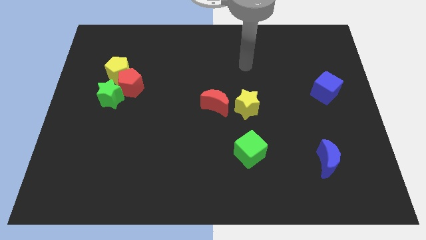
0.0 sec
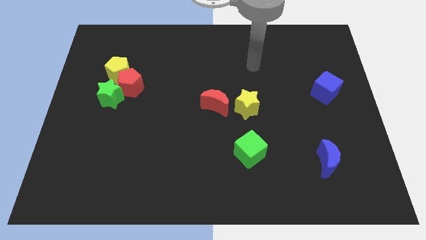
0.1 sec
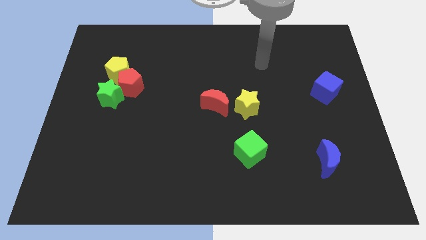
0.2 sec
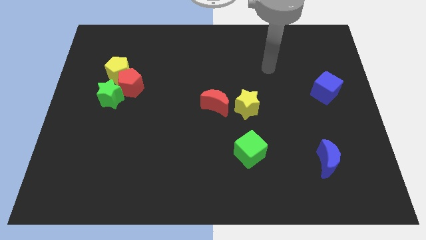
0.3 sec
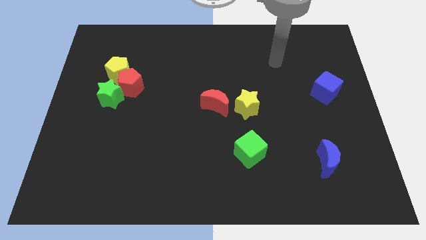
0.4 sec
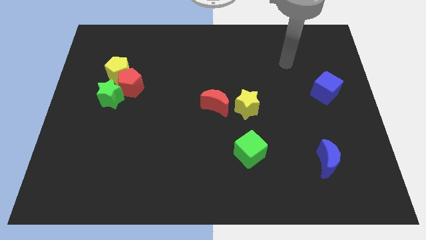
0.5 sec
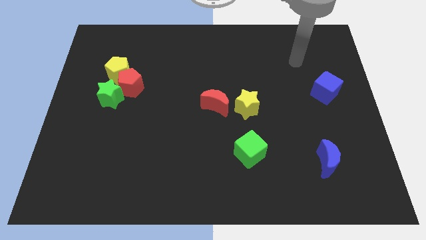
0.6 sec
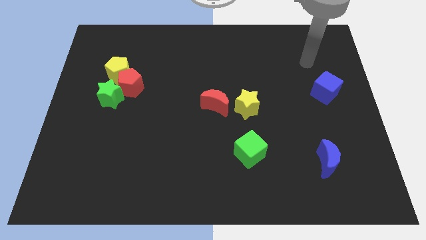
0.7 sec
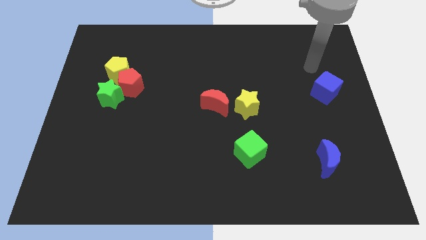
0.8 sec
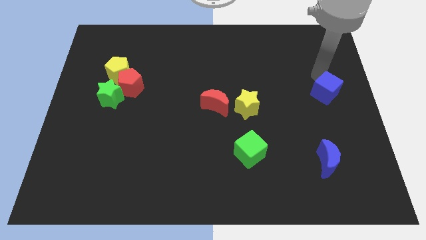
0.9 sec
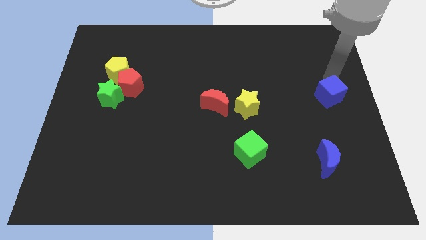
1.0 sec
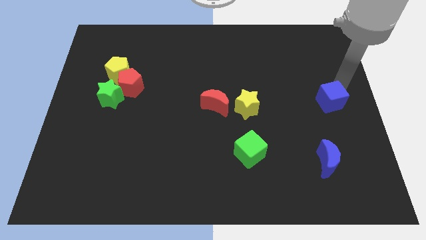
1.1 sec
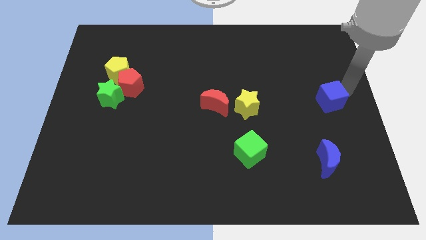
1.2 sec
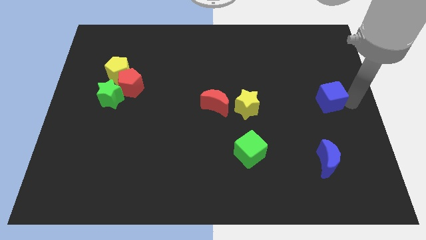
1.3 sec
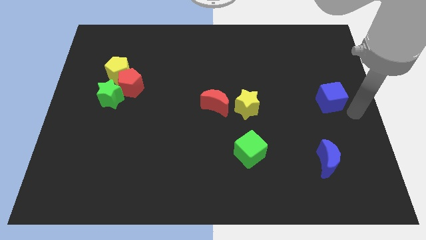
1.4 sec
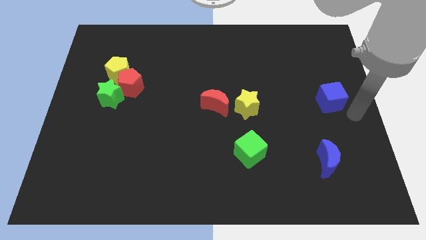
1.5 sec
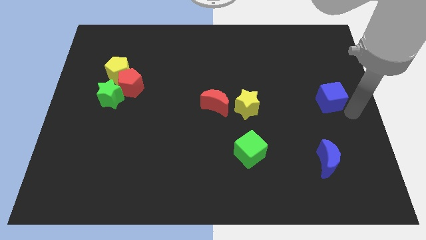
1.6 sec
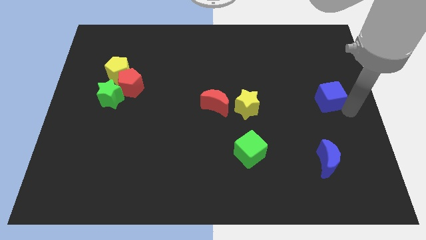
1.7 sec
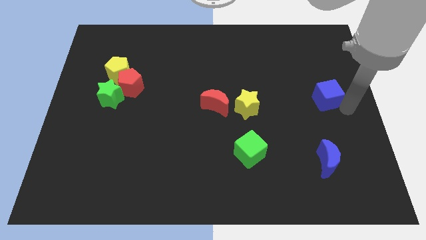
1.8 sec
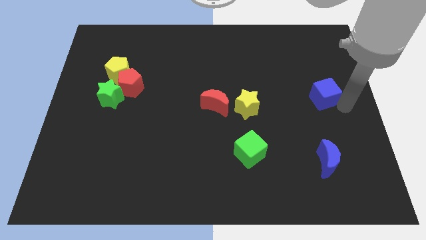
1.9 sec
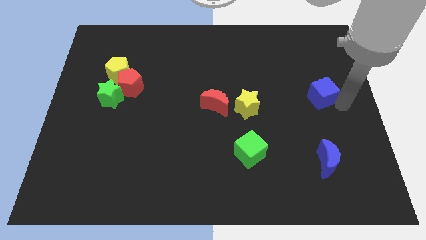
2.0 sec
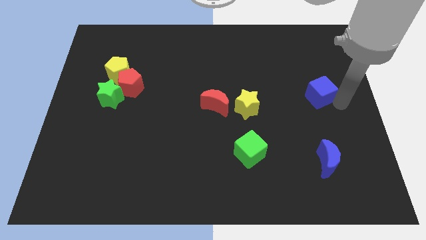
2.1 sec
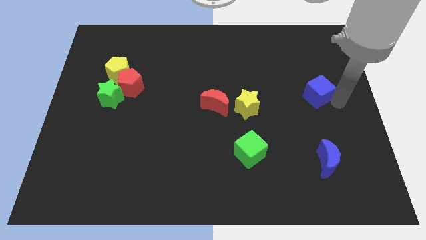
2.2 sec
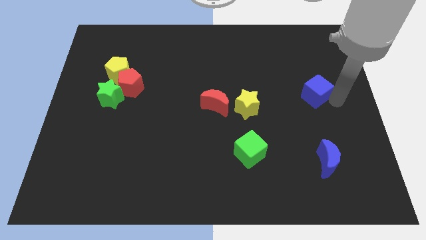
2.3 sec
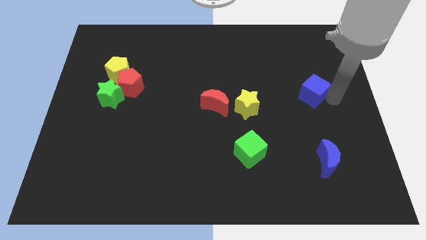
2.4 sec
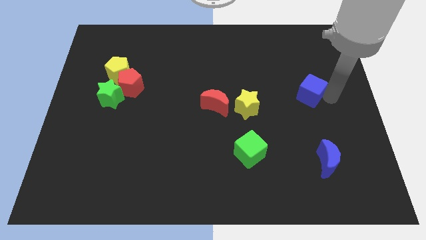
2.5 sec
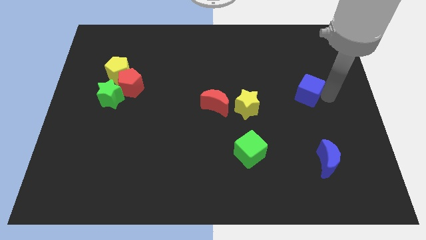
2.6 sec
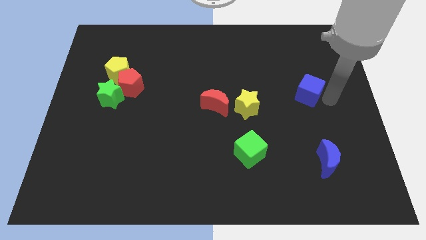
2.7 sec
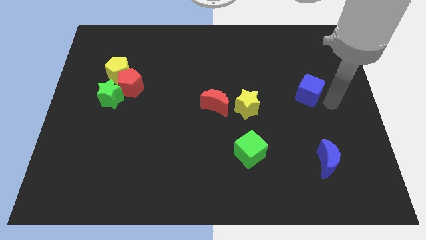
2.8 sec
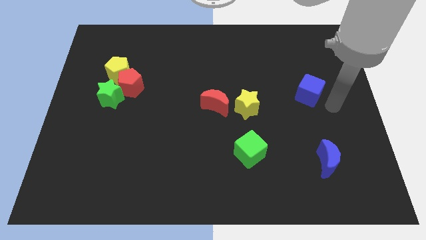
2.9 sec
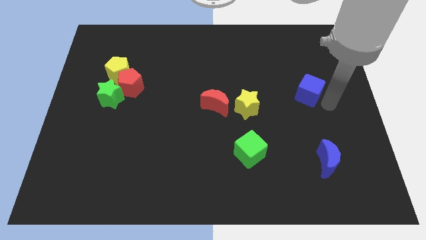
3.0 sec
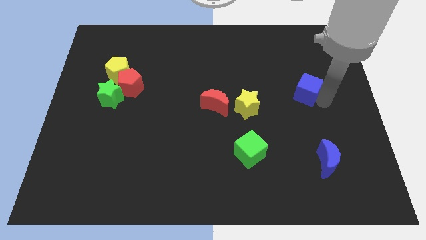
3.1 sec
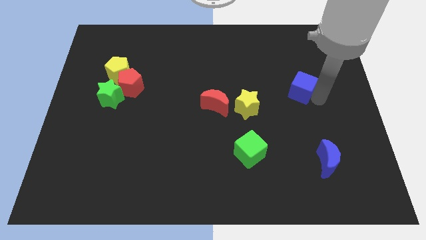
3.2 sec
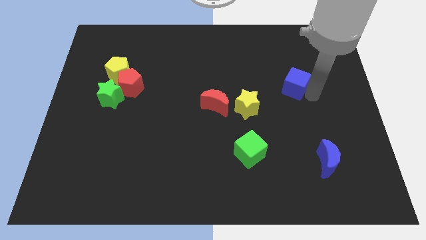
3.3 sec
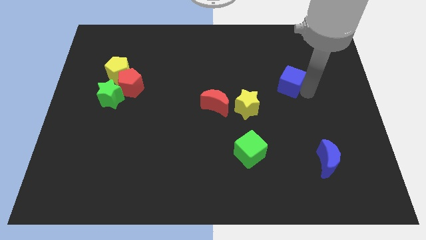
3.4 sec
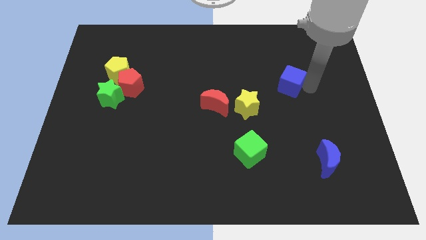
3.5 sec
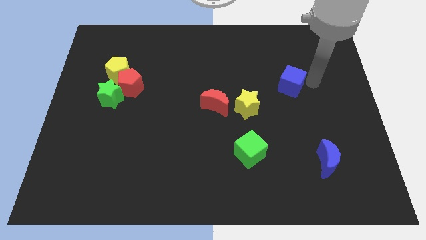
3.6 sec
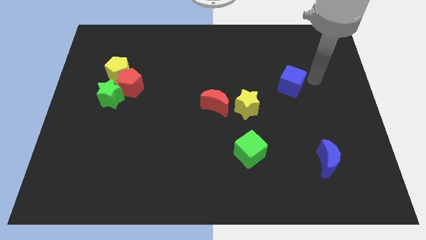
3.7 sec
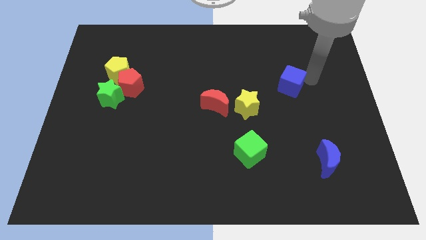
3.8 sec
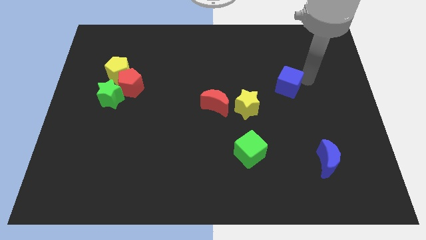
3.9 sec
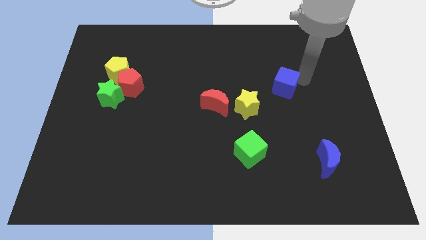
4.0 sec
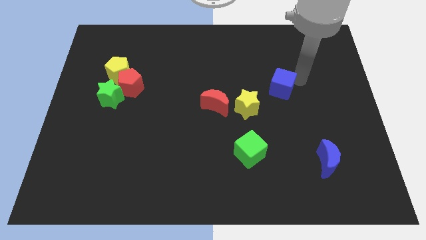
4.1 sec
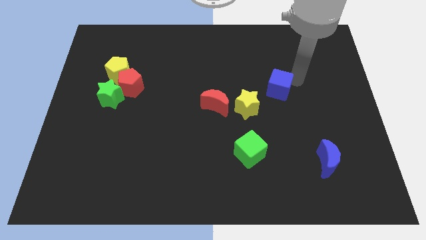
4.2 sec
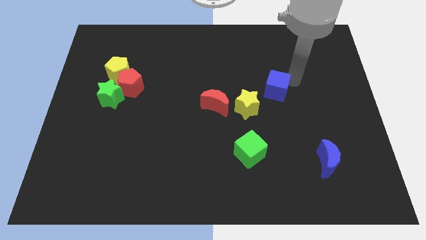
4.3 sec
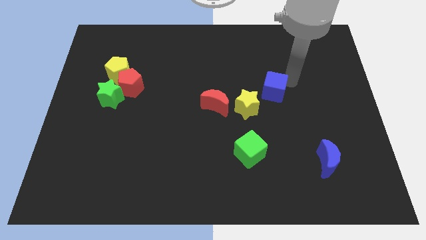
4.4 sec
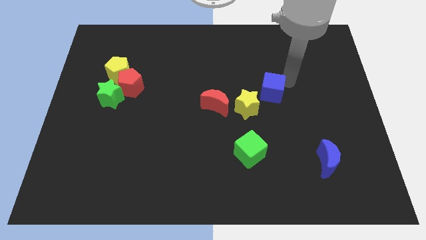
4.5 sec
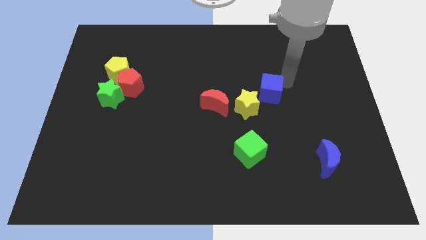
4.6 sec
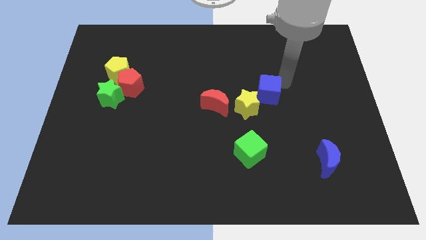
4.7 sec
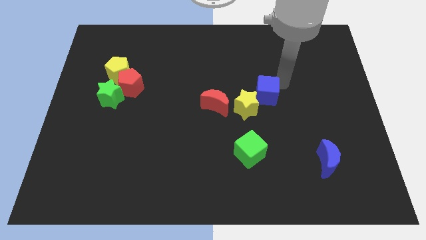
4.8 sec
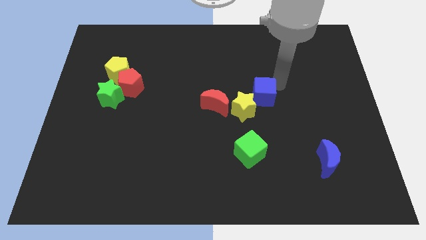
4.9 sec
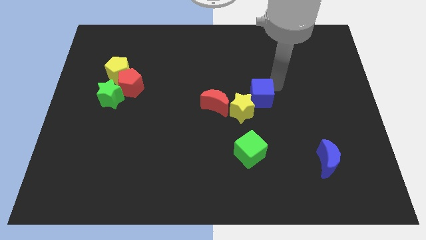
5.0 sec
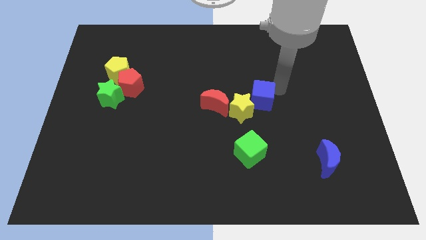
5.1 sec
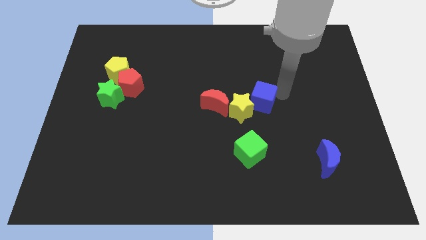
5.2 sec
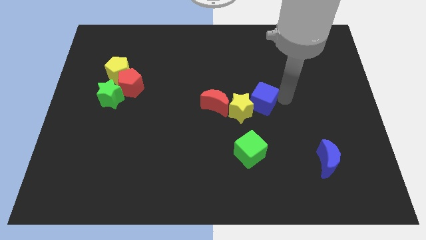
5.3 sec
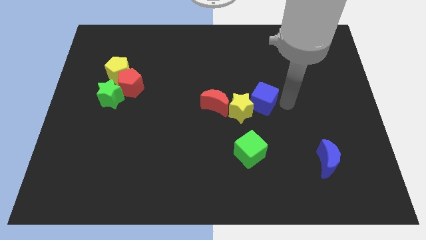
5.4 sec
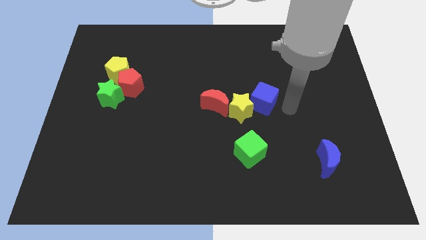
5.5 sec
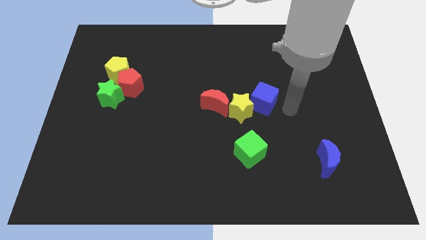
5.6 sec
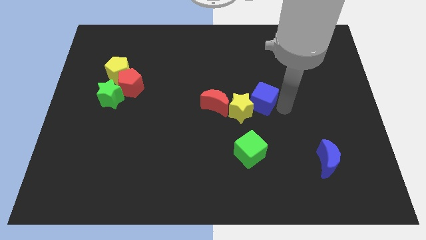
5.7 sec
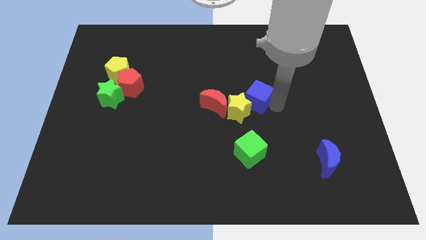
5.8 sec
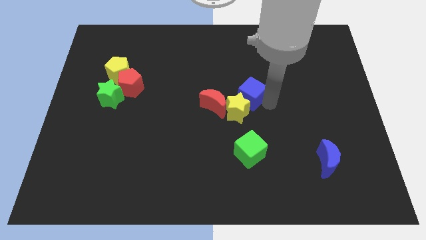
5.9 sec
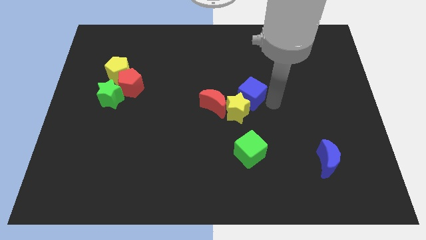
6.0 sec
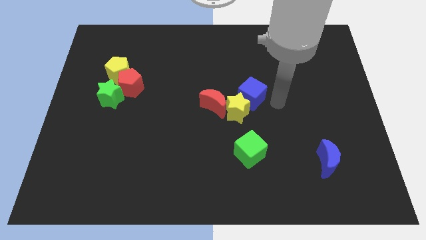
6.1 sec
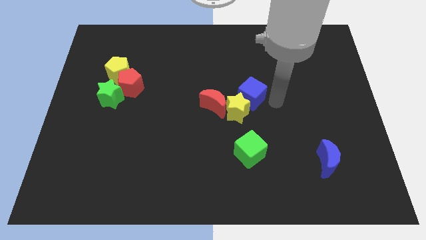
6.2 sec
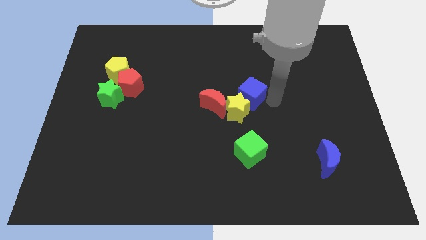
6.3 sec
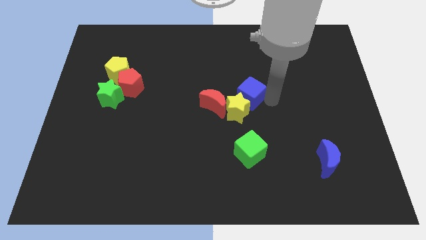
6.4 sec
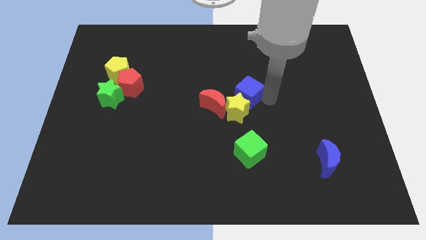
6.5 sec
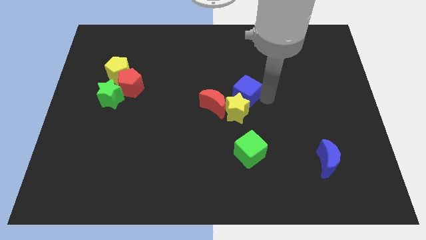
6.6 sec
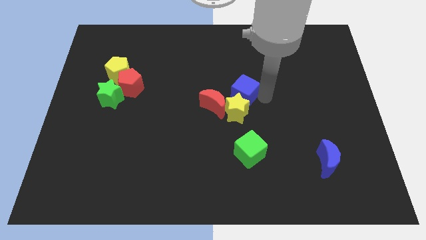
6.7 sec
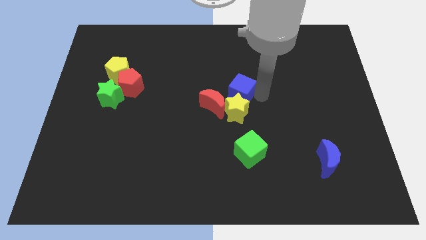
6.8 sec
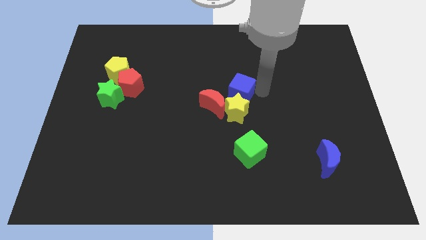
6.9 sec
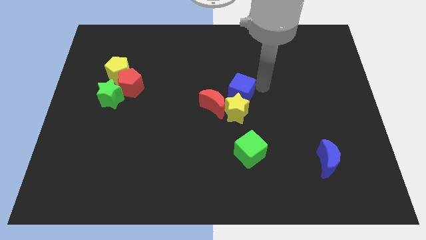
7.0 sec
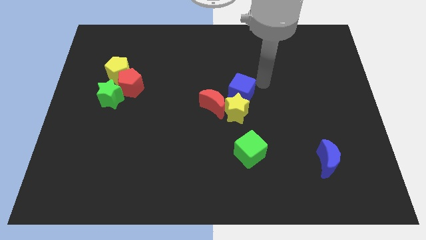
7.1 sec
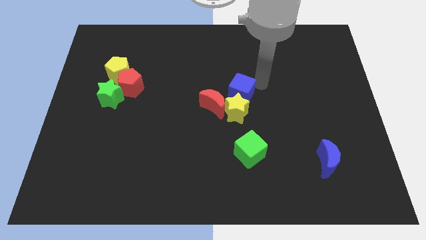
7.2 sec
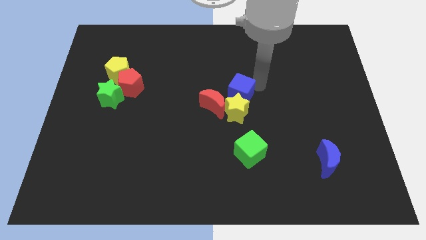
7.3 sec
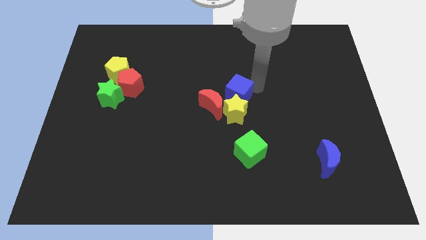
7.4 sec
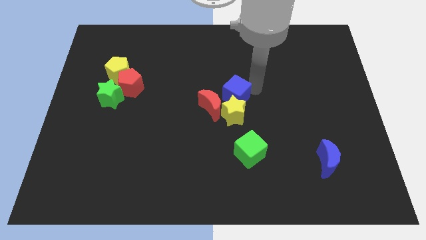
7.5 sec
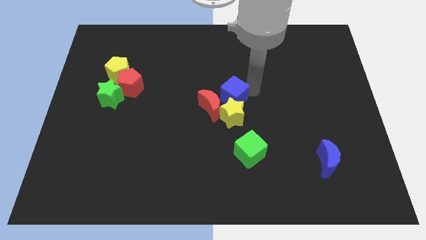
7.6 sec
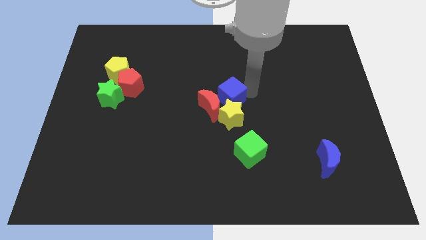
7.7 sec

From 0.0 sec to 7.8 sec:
push the blue cube close to the red moon

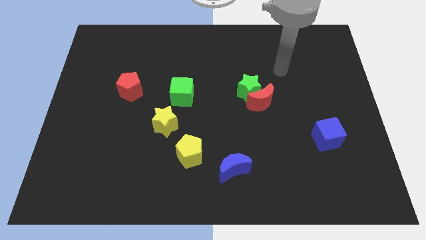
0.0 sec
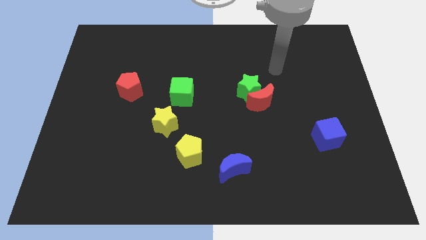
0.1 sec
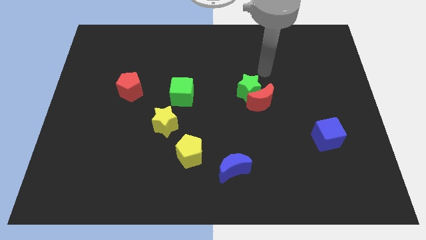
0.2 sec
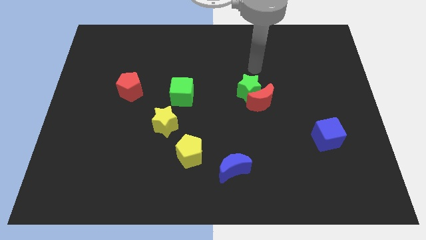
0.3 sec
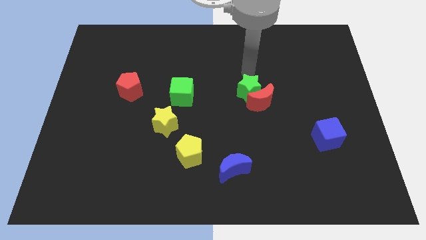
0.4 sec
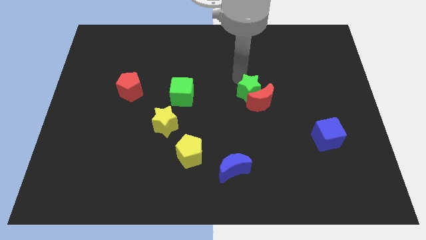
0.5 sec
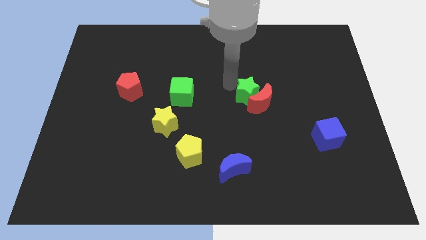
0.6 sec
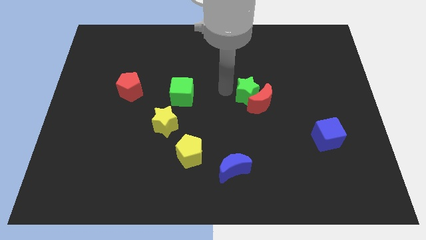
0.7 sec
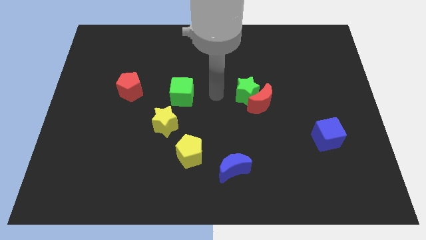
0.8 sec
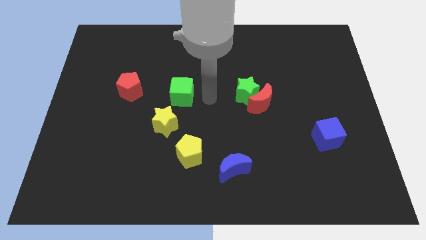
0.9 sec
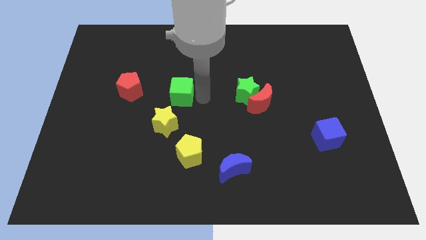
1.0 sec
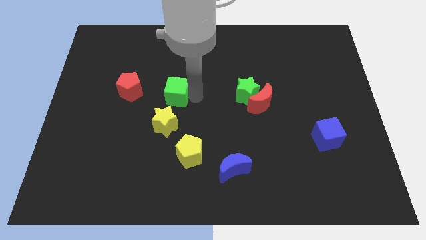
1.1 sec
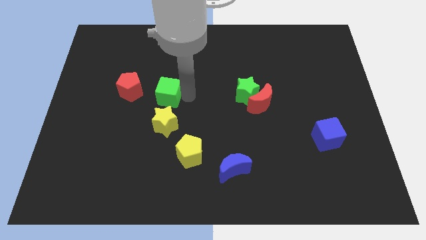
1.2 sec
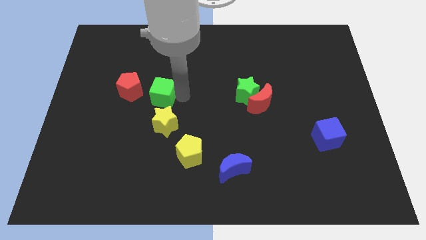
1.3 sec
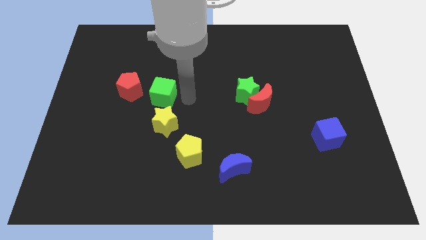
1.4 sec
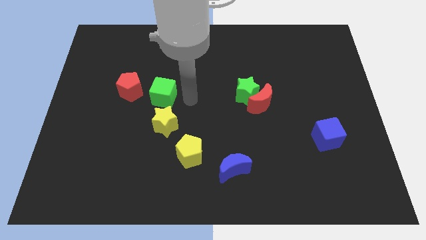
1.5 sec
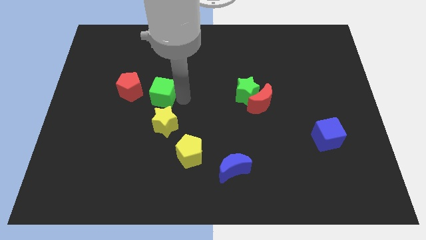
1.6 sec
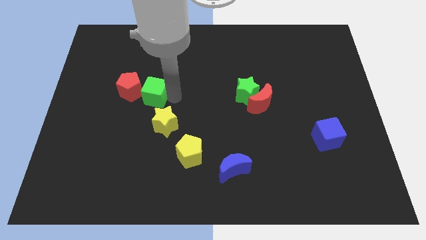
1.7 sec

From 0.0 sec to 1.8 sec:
put the green cube to the red pentagon
